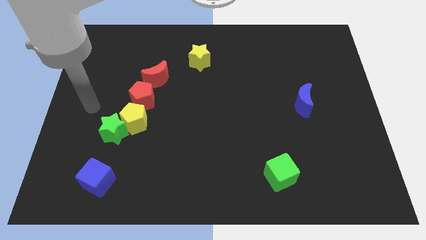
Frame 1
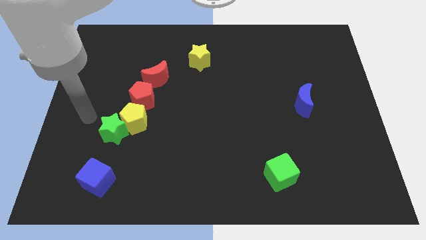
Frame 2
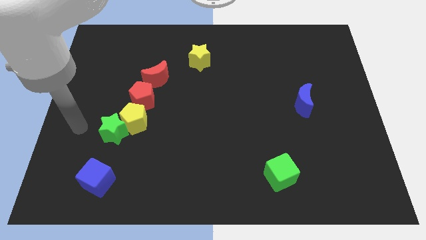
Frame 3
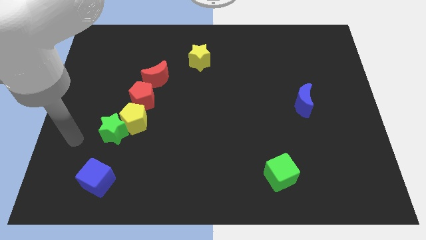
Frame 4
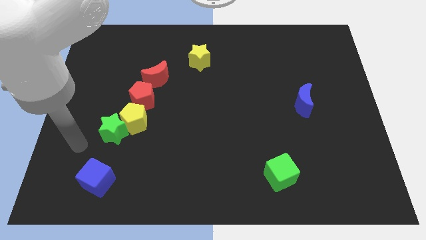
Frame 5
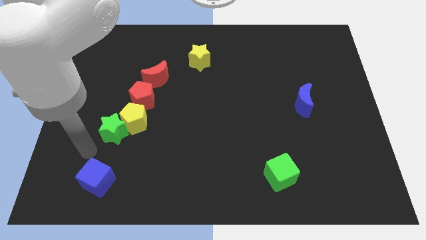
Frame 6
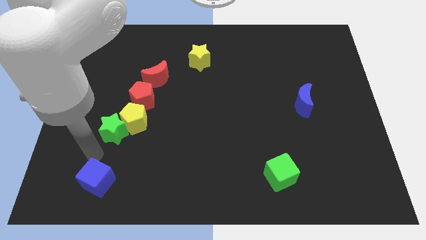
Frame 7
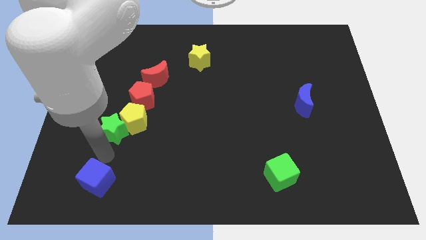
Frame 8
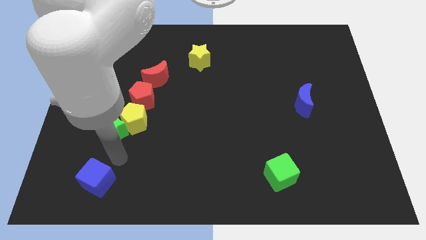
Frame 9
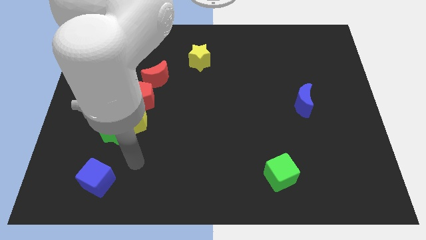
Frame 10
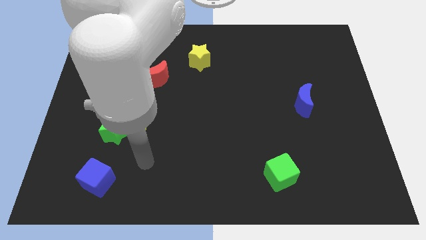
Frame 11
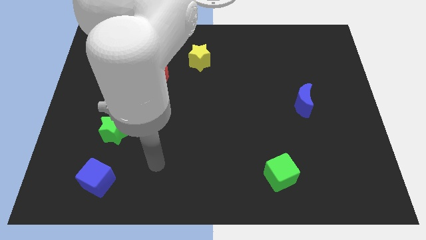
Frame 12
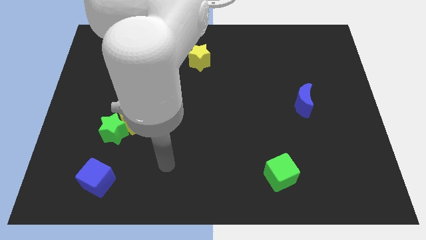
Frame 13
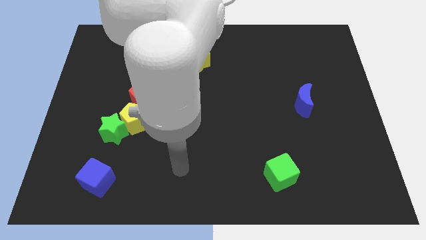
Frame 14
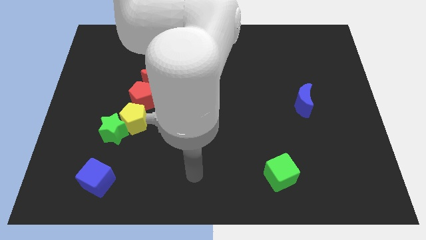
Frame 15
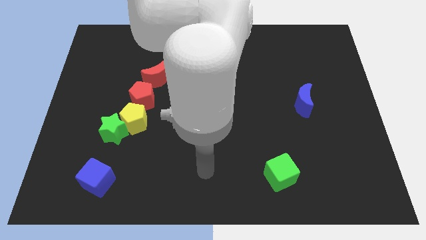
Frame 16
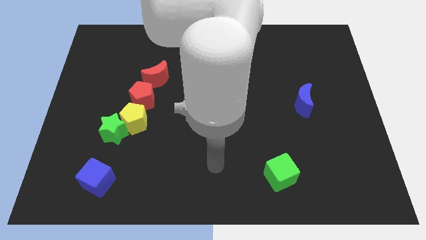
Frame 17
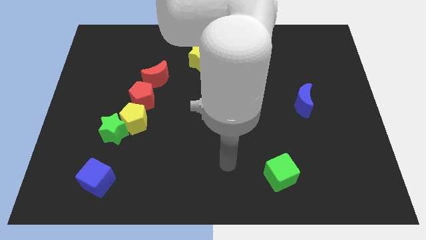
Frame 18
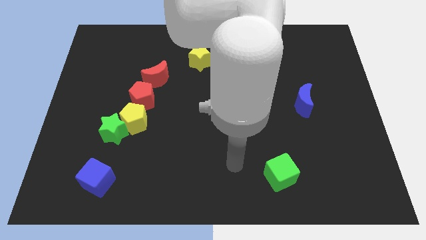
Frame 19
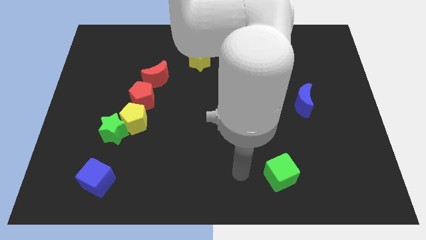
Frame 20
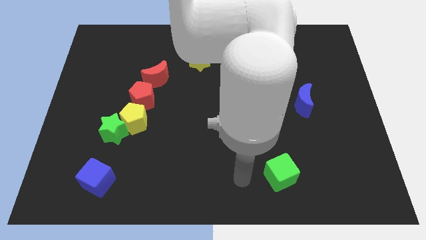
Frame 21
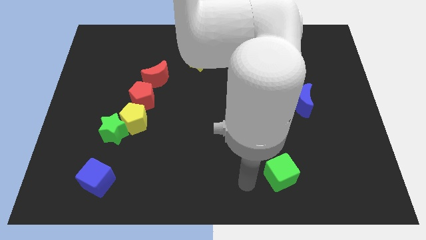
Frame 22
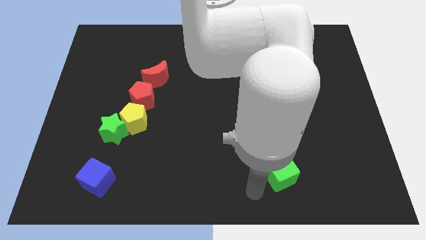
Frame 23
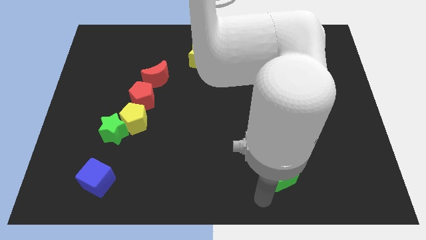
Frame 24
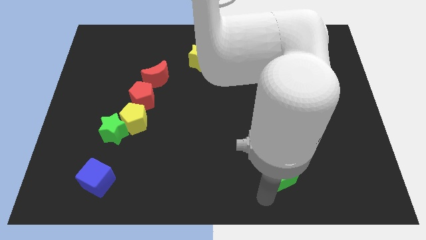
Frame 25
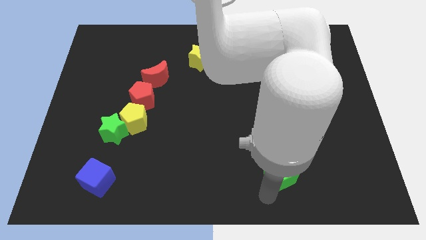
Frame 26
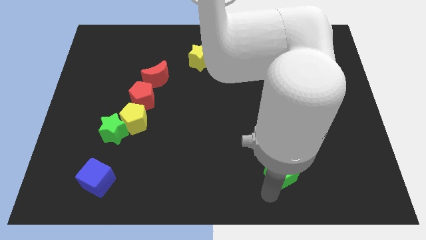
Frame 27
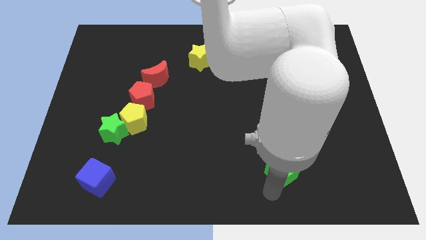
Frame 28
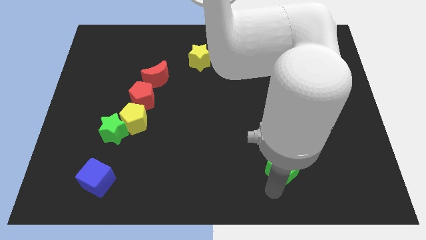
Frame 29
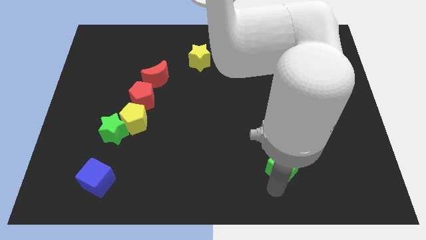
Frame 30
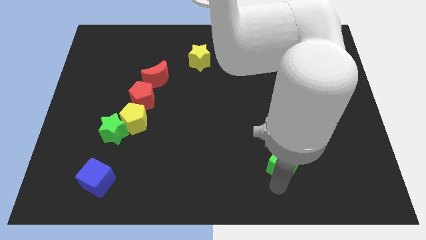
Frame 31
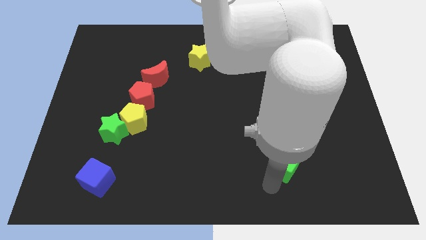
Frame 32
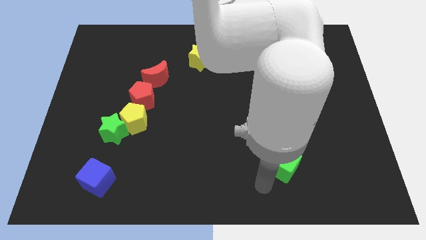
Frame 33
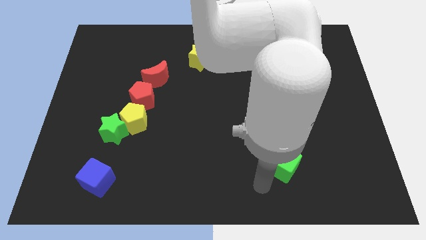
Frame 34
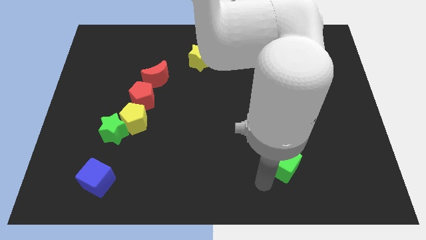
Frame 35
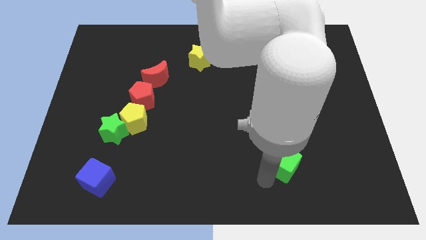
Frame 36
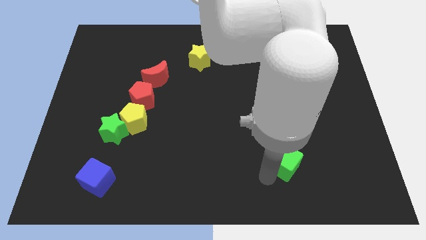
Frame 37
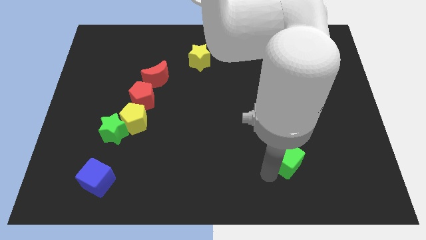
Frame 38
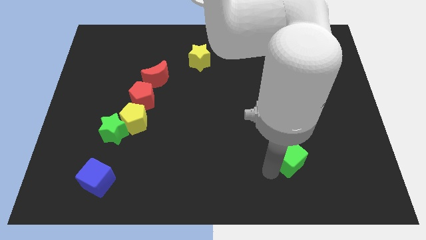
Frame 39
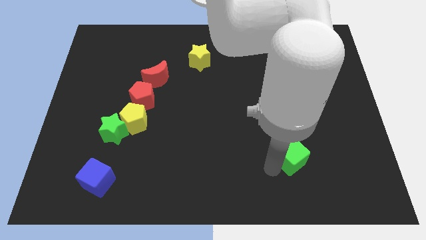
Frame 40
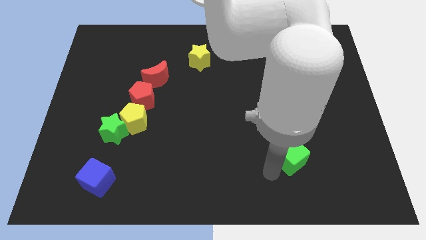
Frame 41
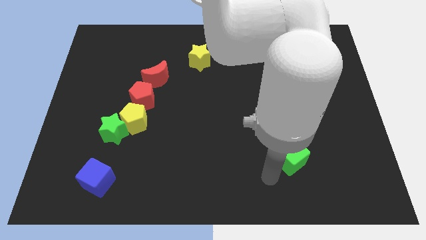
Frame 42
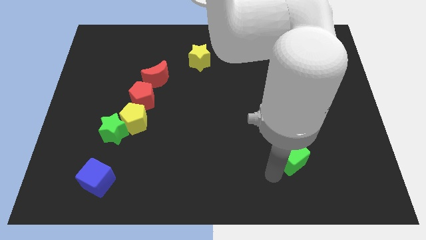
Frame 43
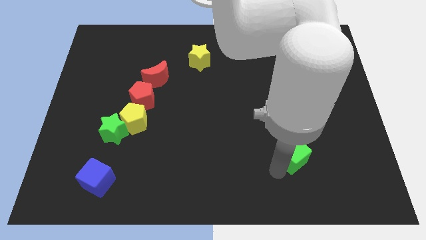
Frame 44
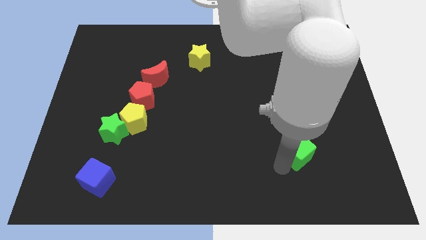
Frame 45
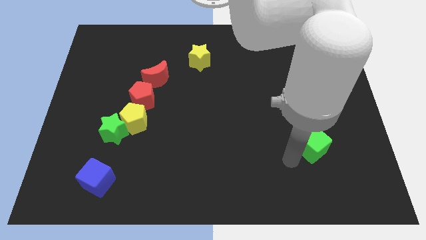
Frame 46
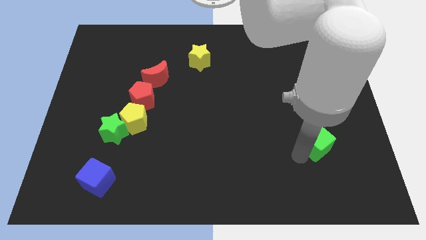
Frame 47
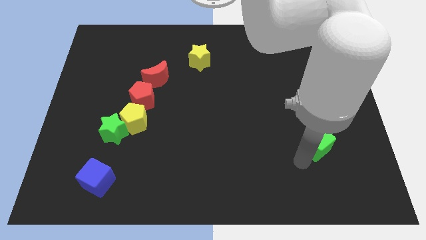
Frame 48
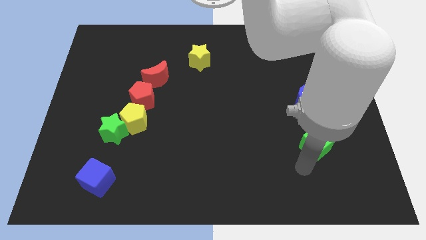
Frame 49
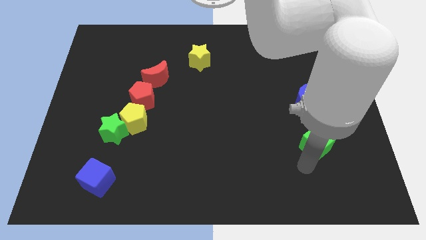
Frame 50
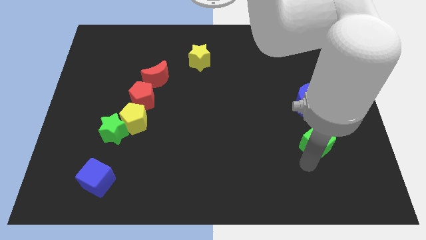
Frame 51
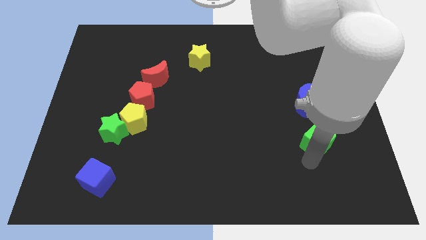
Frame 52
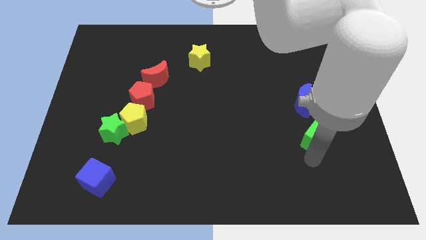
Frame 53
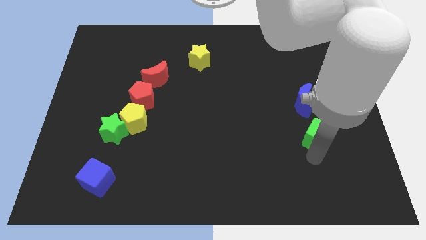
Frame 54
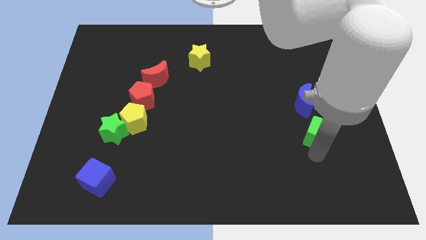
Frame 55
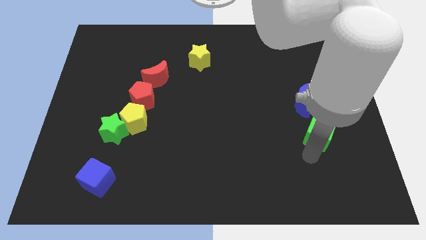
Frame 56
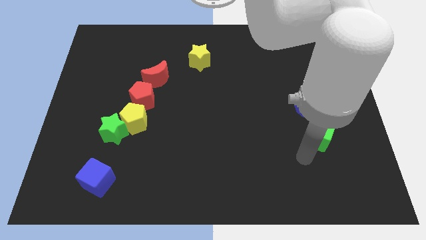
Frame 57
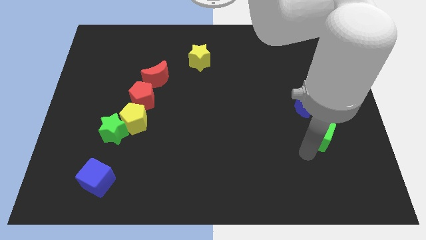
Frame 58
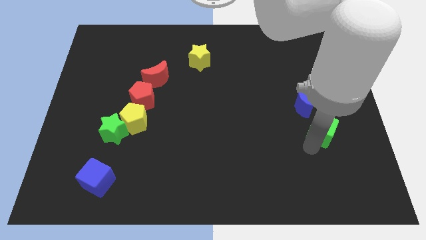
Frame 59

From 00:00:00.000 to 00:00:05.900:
put the green cube to the bottom right side of the blue moon
